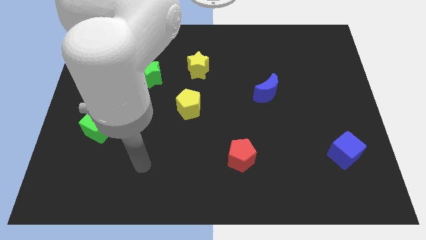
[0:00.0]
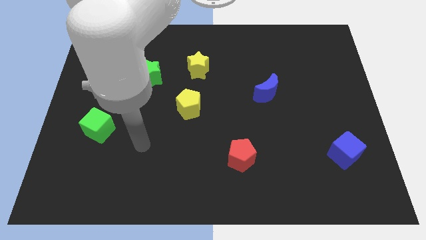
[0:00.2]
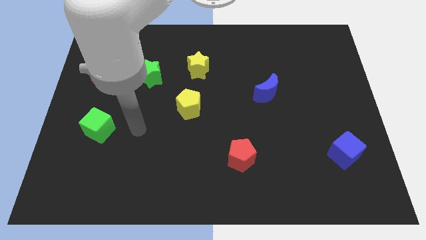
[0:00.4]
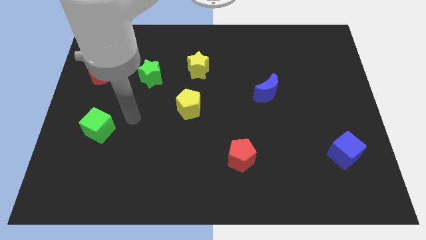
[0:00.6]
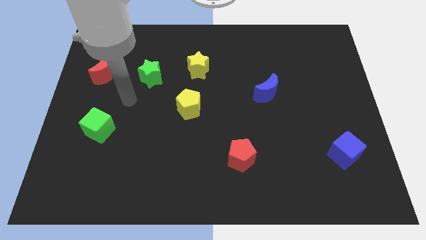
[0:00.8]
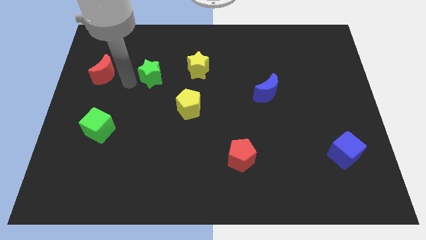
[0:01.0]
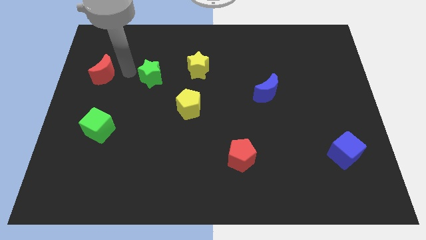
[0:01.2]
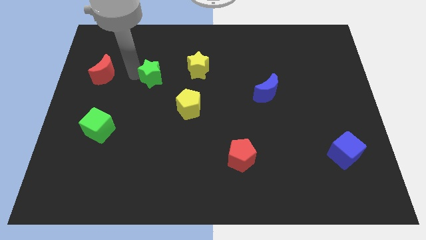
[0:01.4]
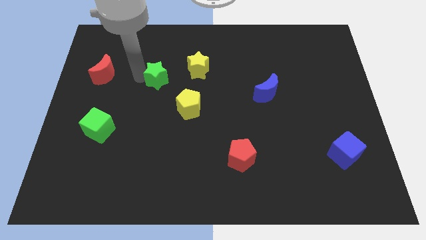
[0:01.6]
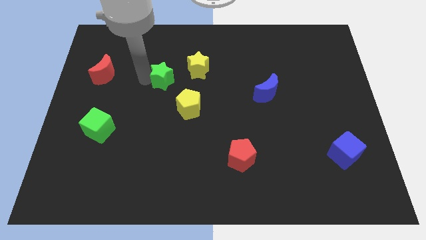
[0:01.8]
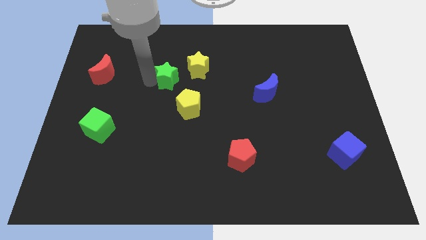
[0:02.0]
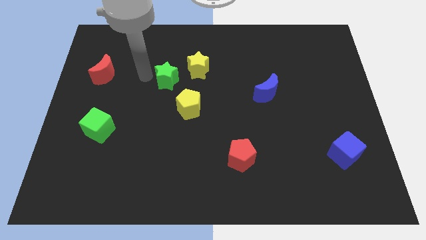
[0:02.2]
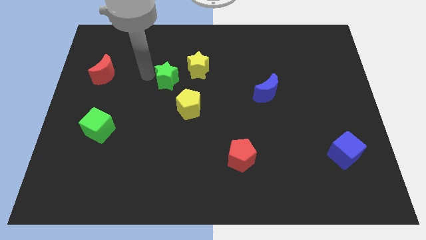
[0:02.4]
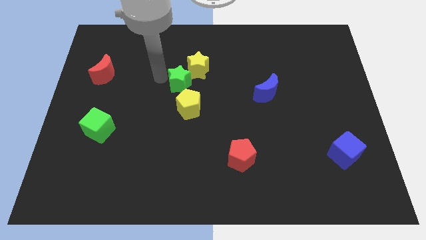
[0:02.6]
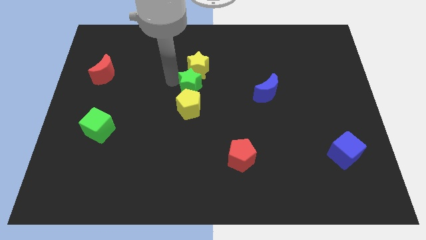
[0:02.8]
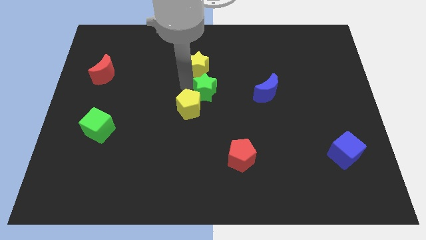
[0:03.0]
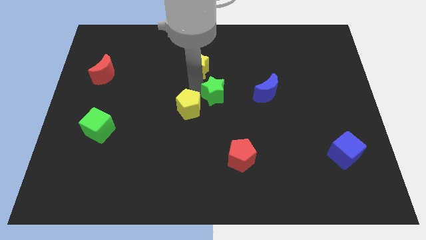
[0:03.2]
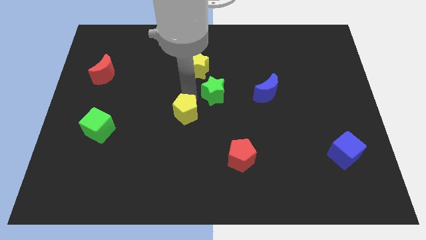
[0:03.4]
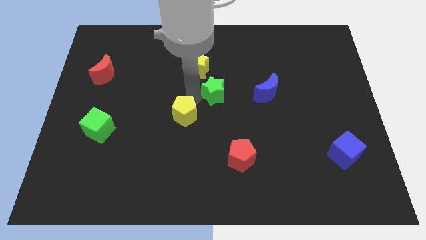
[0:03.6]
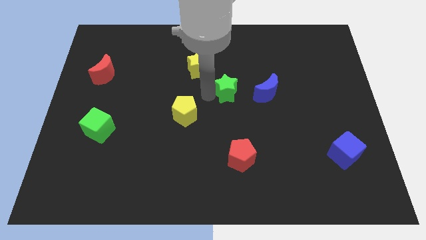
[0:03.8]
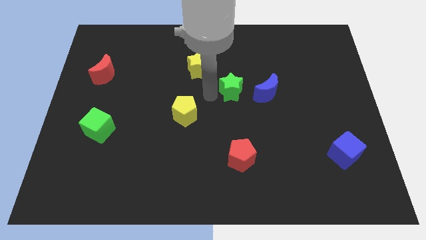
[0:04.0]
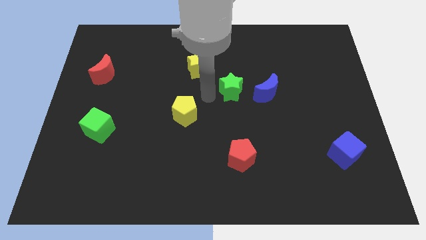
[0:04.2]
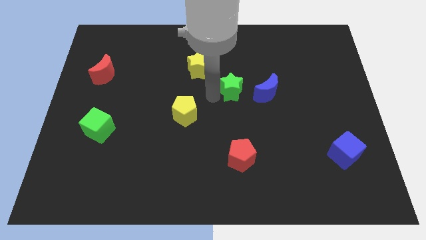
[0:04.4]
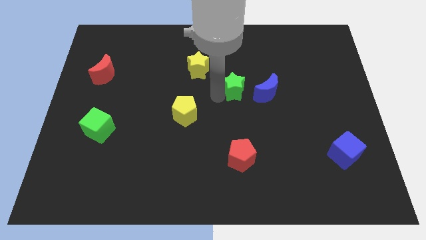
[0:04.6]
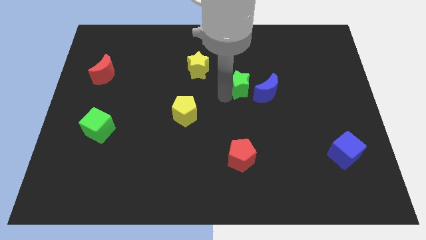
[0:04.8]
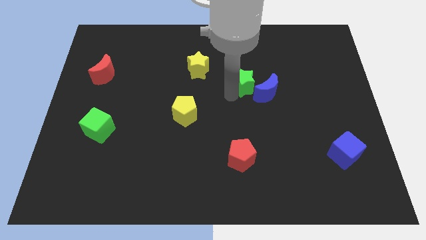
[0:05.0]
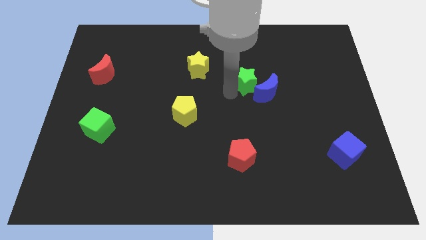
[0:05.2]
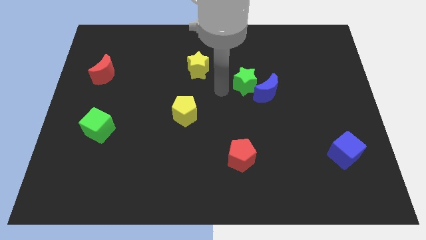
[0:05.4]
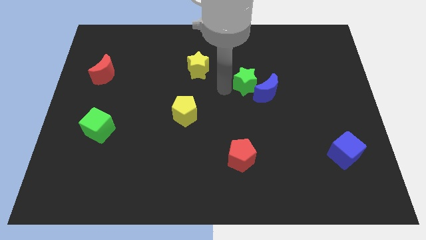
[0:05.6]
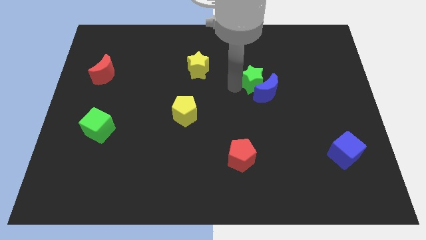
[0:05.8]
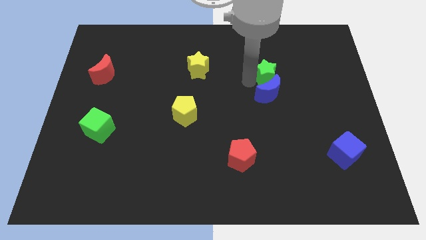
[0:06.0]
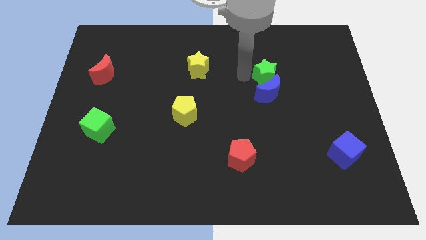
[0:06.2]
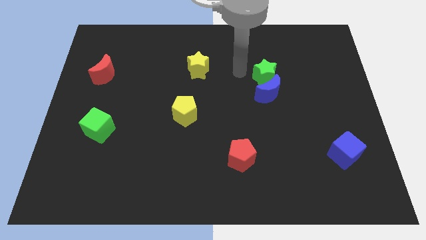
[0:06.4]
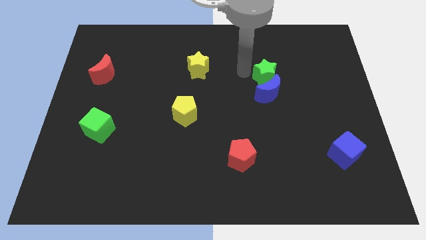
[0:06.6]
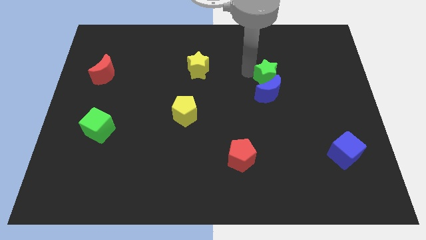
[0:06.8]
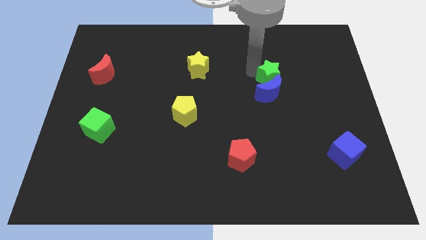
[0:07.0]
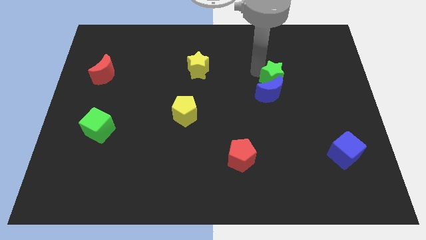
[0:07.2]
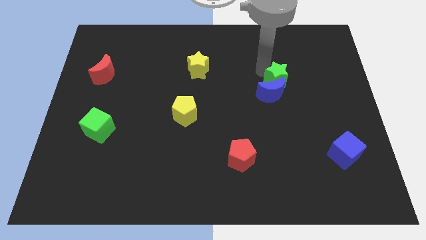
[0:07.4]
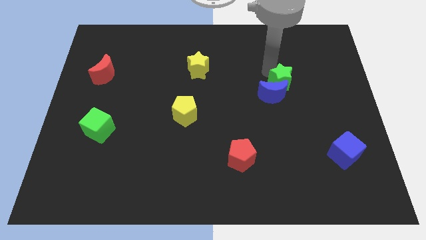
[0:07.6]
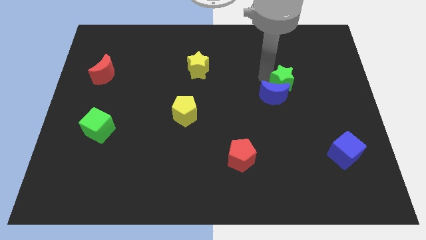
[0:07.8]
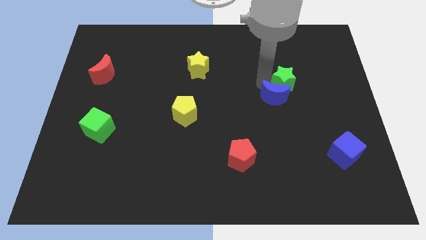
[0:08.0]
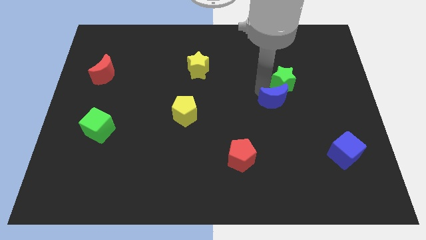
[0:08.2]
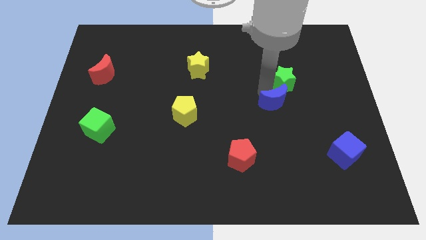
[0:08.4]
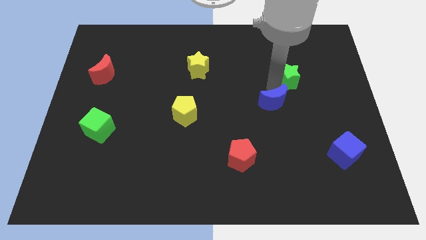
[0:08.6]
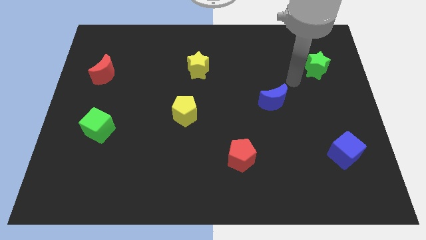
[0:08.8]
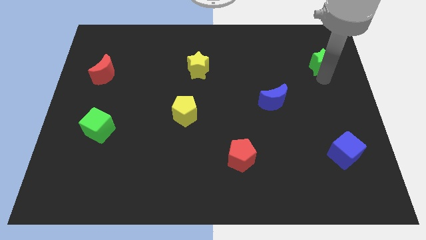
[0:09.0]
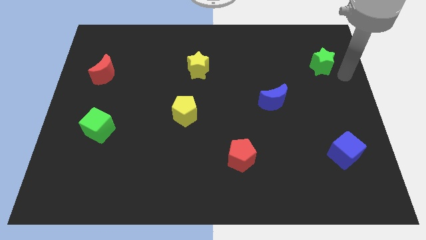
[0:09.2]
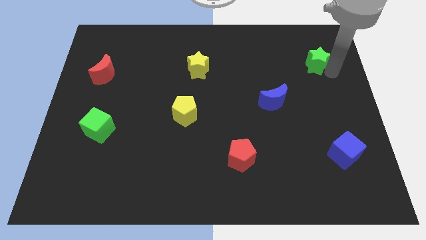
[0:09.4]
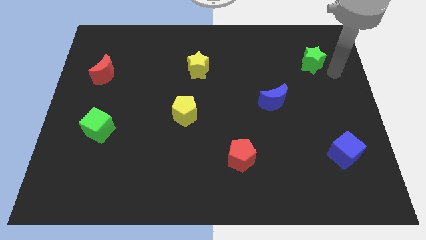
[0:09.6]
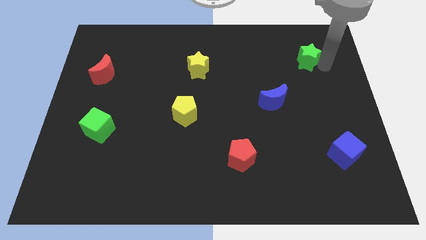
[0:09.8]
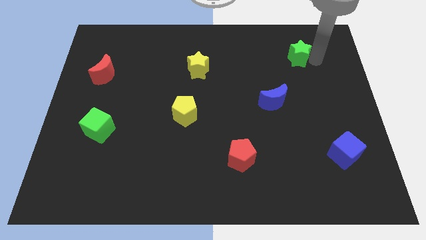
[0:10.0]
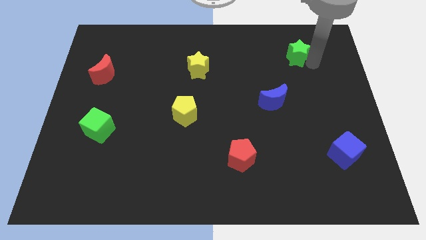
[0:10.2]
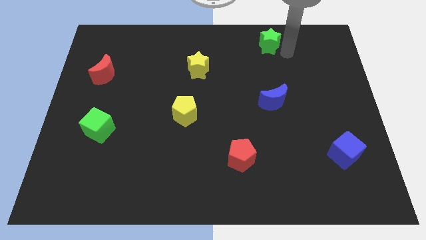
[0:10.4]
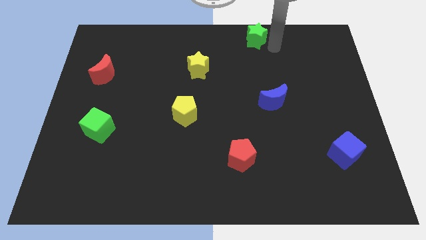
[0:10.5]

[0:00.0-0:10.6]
push the green star to the towards your base

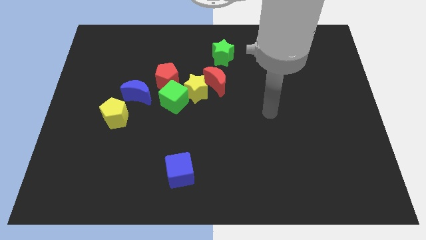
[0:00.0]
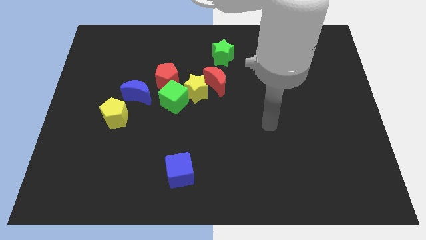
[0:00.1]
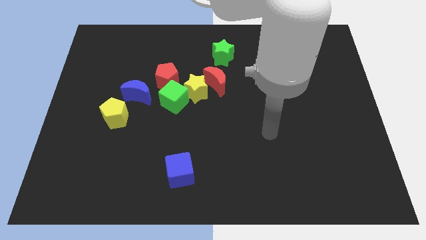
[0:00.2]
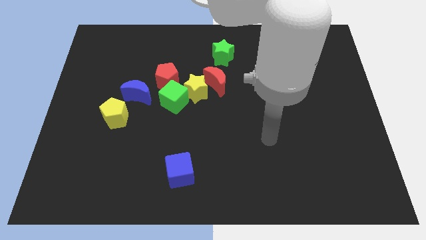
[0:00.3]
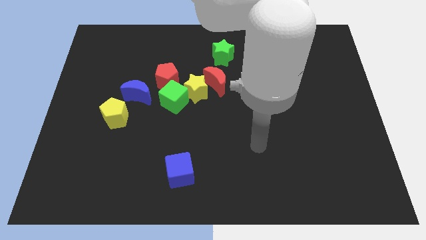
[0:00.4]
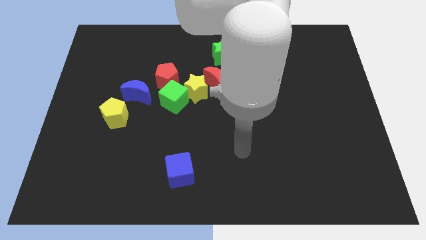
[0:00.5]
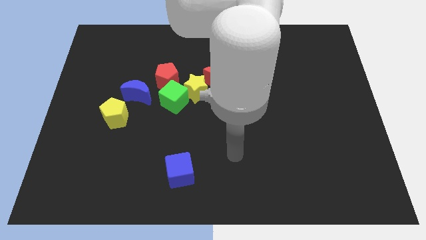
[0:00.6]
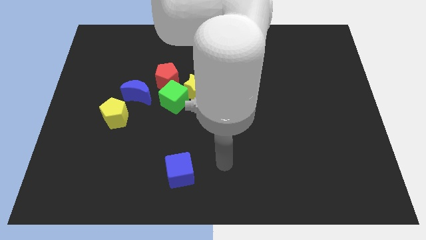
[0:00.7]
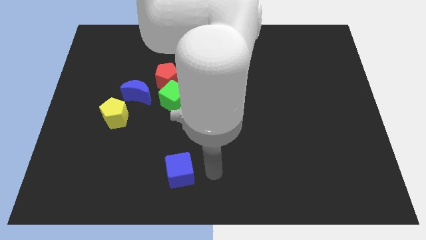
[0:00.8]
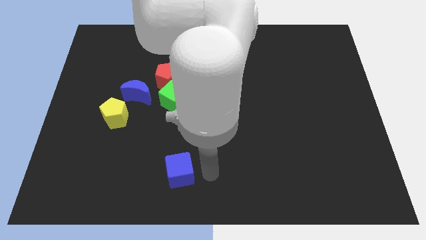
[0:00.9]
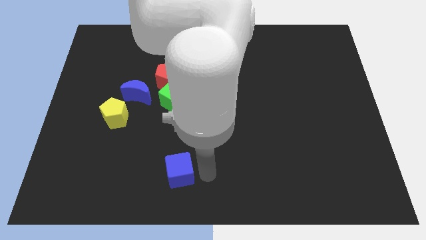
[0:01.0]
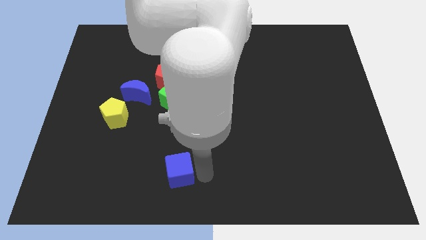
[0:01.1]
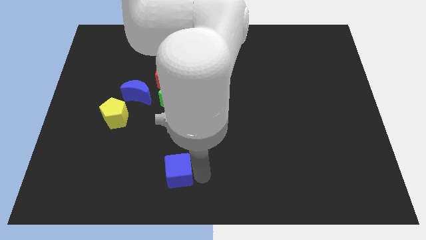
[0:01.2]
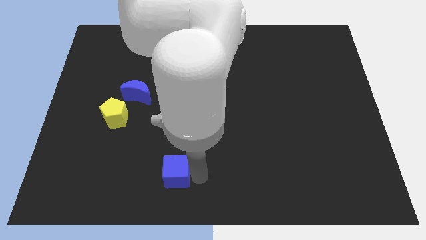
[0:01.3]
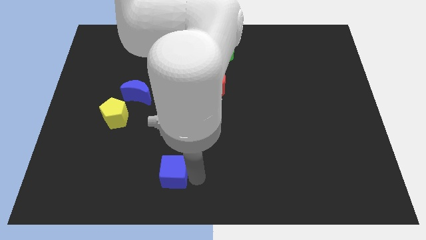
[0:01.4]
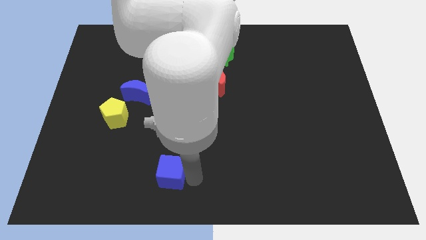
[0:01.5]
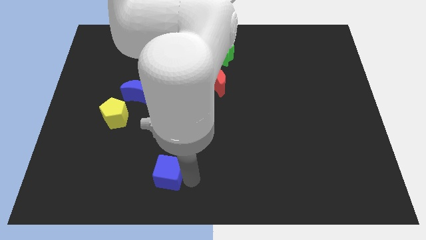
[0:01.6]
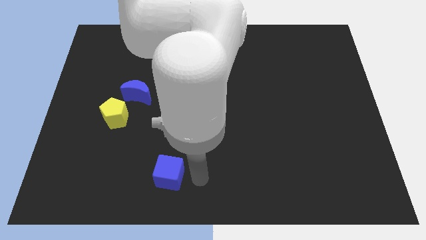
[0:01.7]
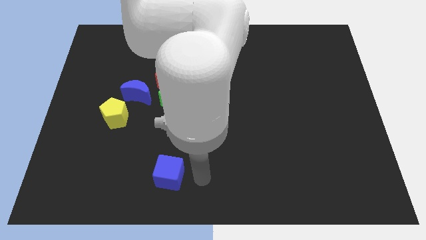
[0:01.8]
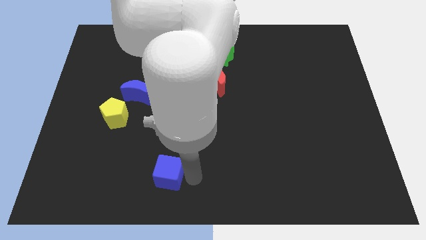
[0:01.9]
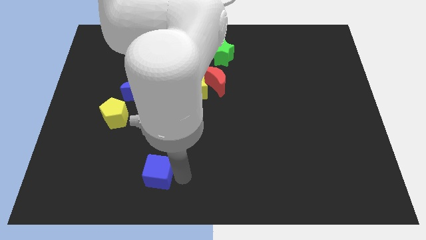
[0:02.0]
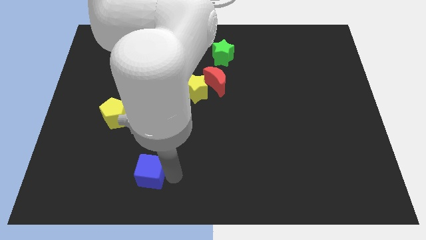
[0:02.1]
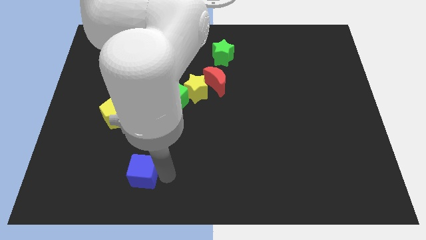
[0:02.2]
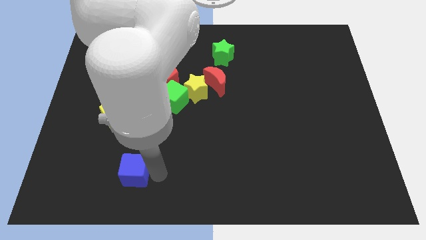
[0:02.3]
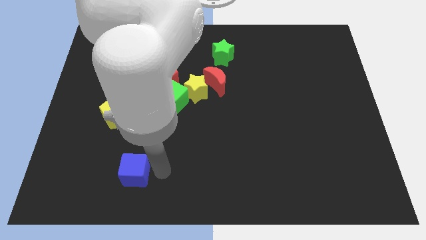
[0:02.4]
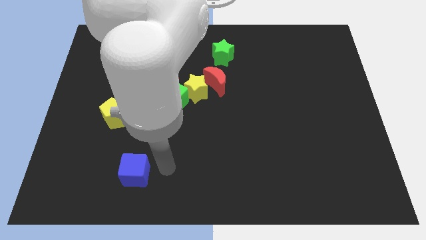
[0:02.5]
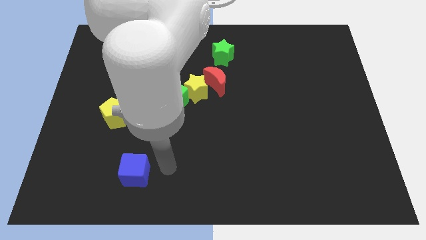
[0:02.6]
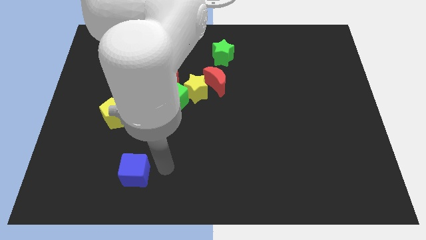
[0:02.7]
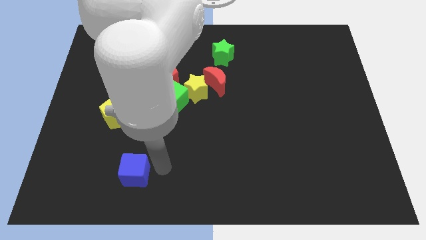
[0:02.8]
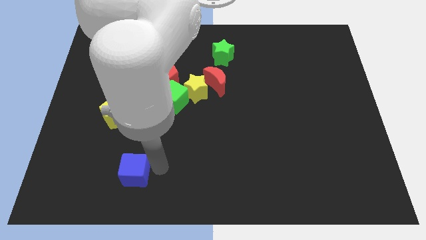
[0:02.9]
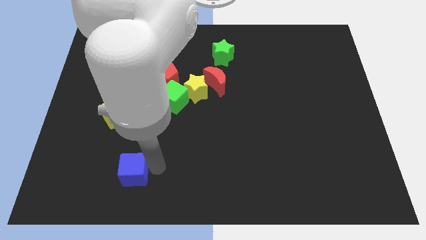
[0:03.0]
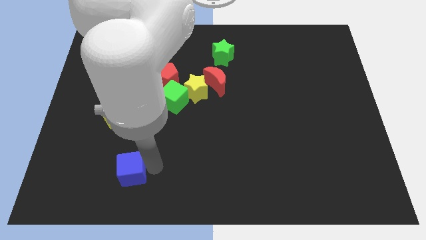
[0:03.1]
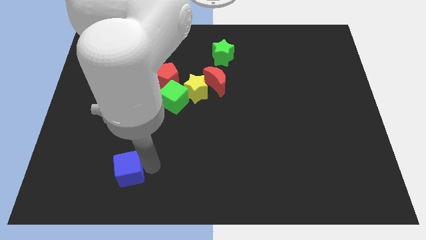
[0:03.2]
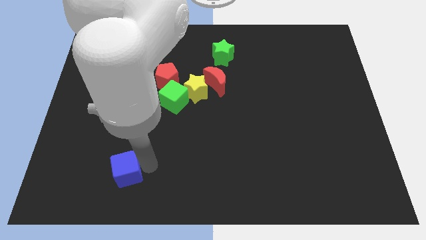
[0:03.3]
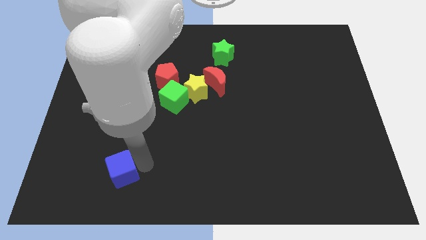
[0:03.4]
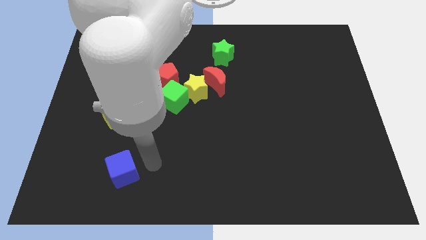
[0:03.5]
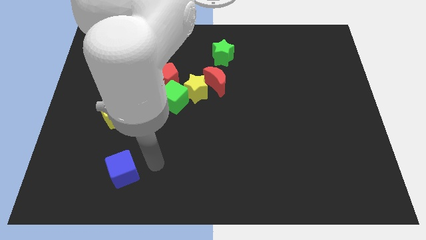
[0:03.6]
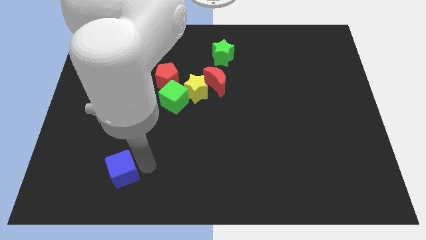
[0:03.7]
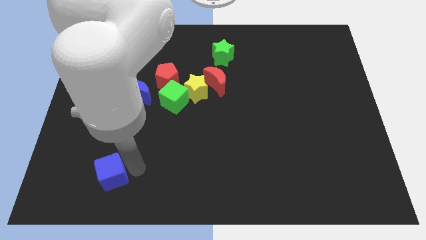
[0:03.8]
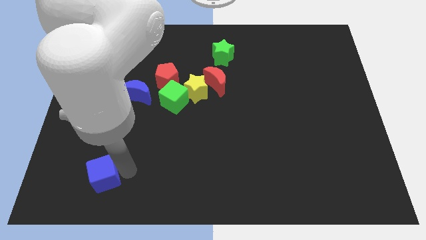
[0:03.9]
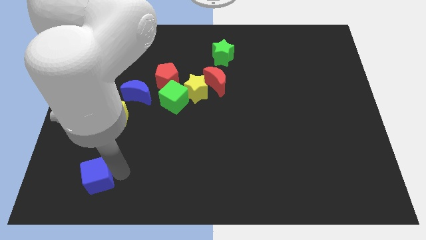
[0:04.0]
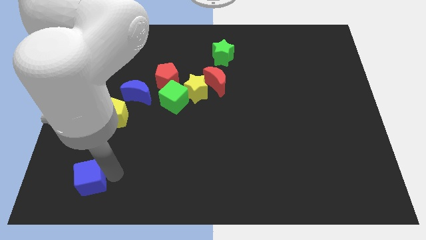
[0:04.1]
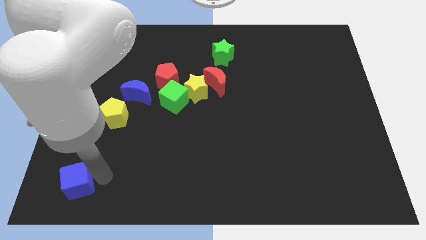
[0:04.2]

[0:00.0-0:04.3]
put the blue cube to the bottom left of the board
